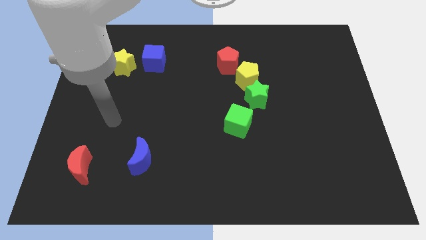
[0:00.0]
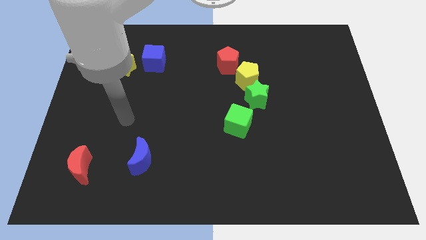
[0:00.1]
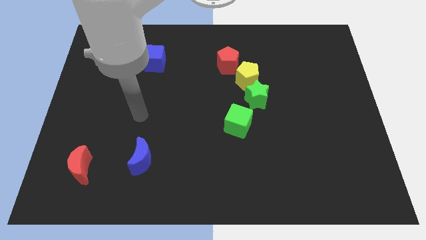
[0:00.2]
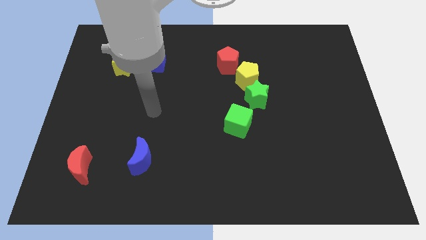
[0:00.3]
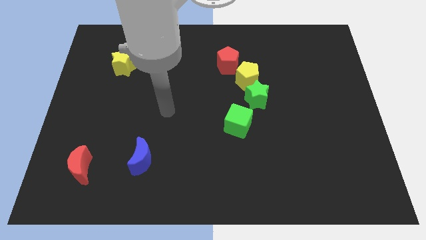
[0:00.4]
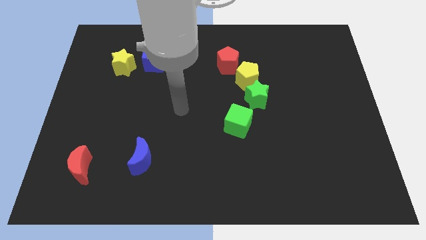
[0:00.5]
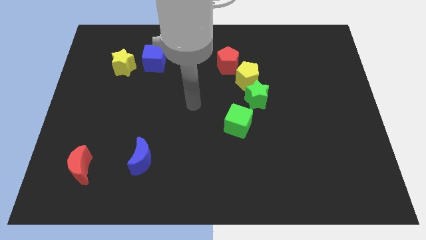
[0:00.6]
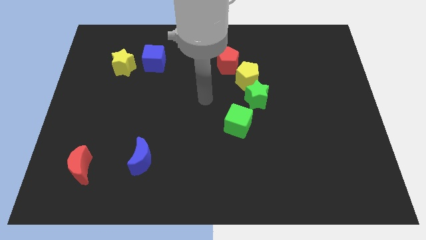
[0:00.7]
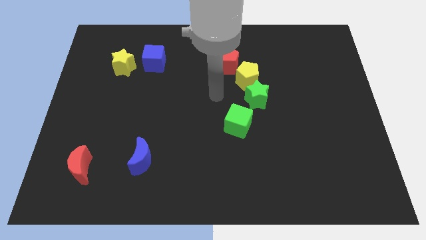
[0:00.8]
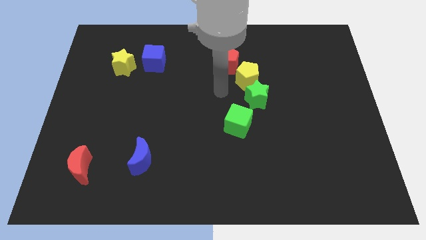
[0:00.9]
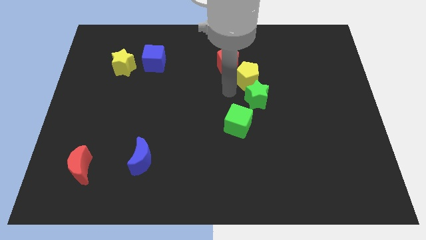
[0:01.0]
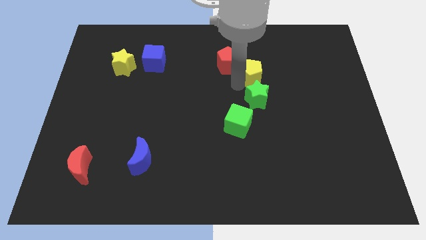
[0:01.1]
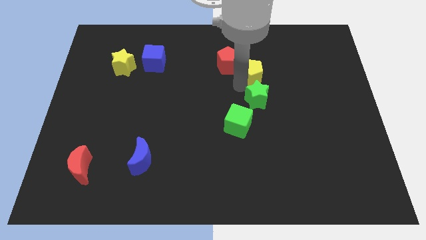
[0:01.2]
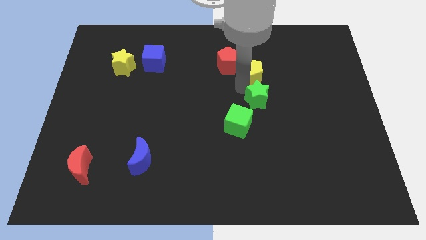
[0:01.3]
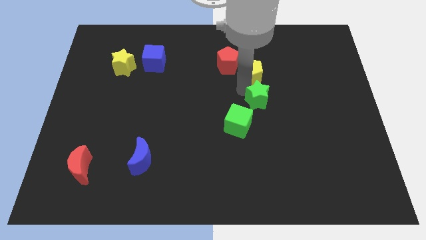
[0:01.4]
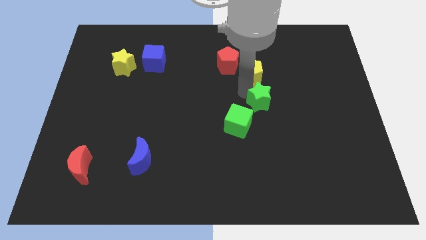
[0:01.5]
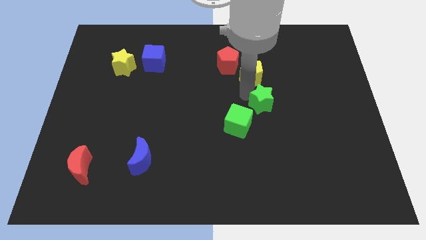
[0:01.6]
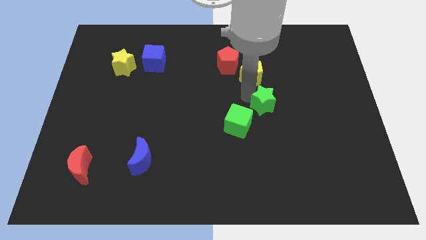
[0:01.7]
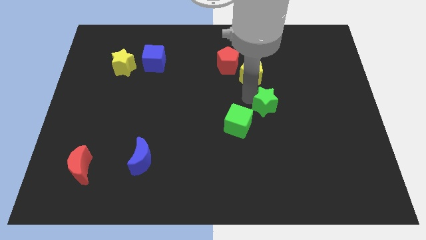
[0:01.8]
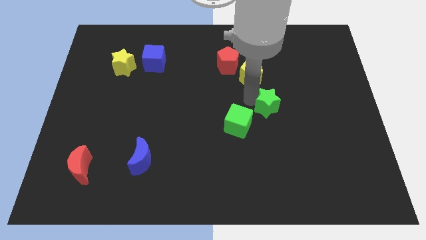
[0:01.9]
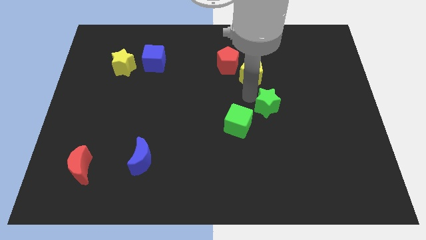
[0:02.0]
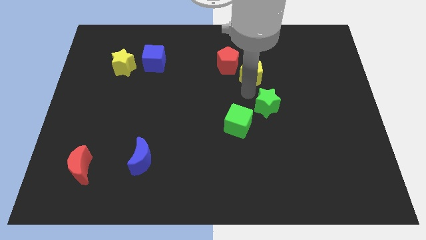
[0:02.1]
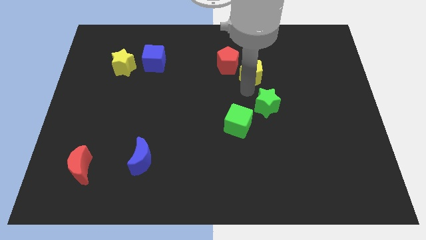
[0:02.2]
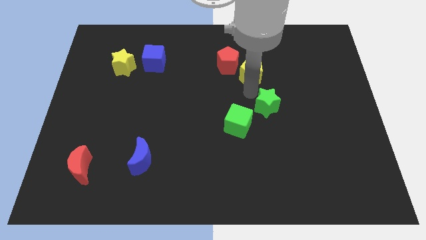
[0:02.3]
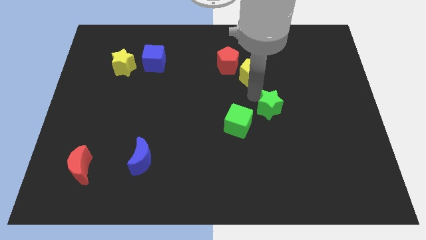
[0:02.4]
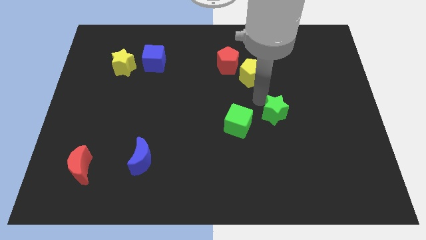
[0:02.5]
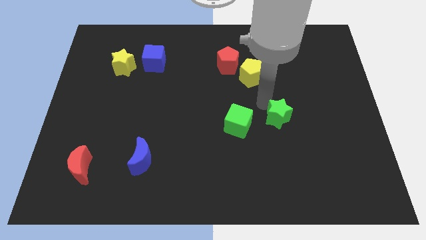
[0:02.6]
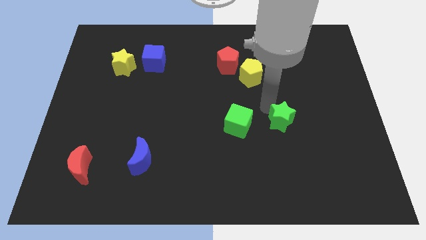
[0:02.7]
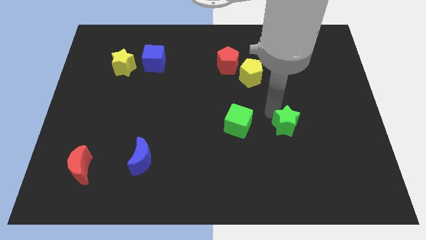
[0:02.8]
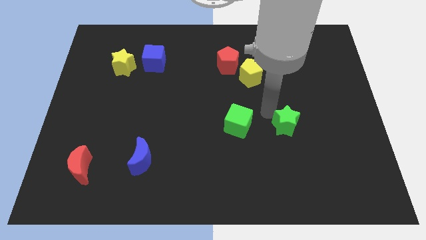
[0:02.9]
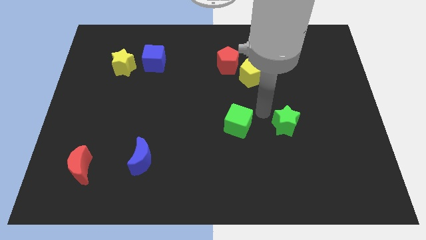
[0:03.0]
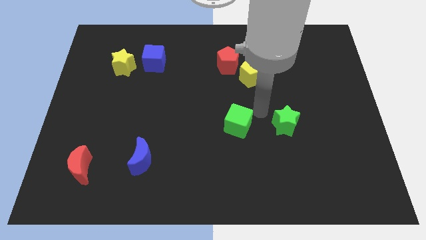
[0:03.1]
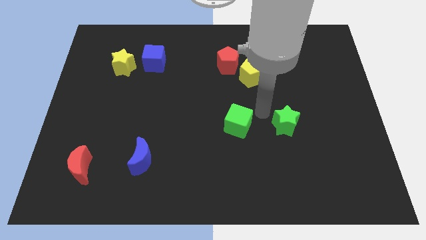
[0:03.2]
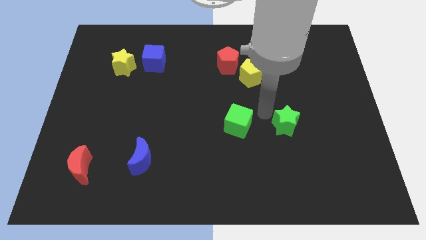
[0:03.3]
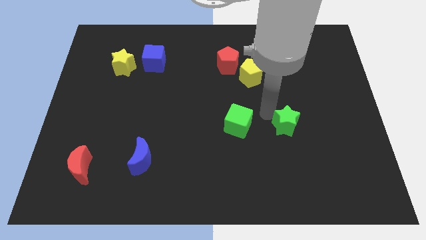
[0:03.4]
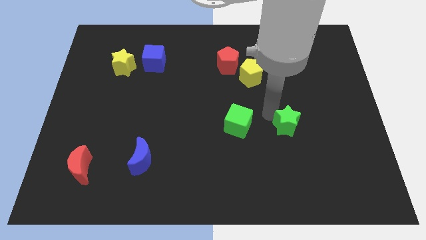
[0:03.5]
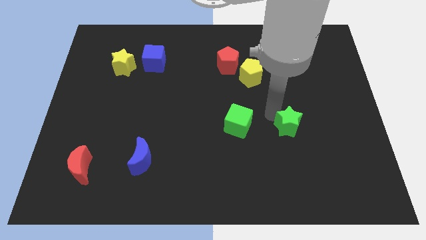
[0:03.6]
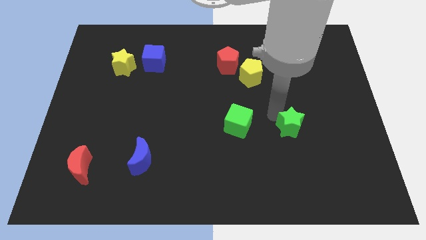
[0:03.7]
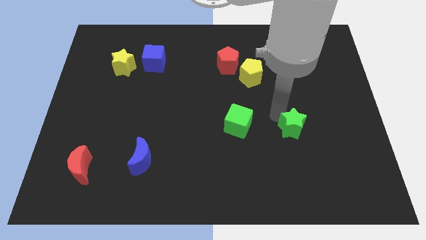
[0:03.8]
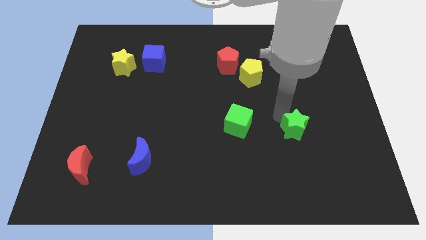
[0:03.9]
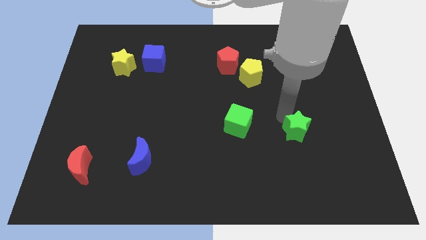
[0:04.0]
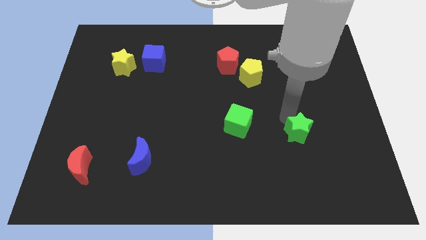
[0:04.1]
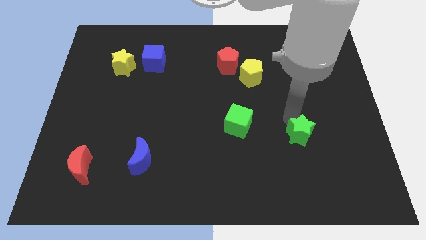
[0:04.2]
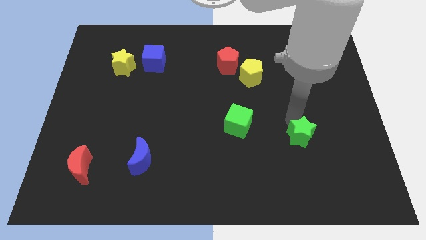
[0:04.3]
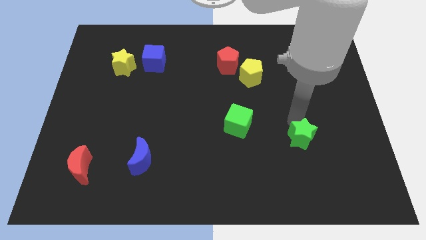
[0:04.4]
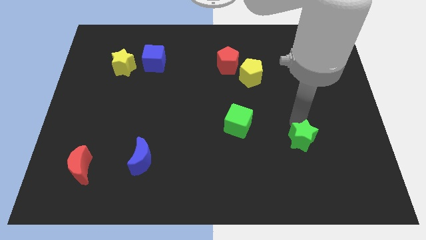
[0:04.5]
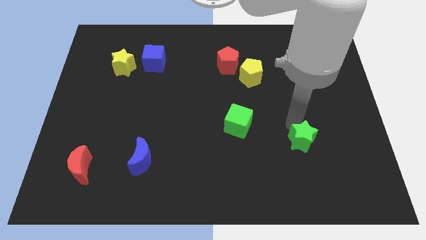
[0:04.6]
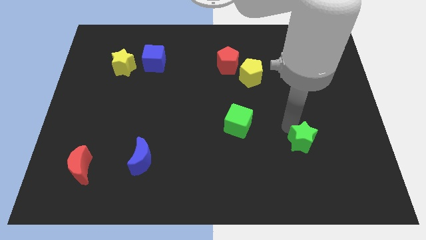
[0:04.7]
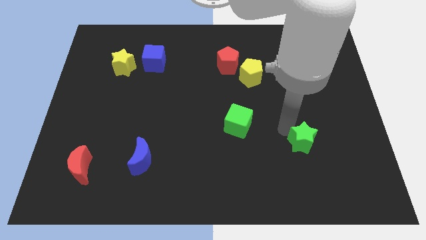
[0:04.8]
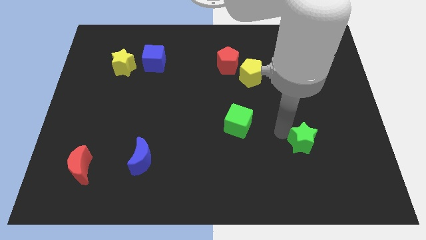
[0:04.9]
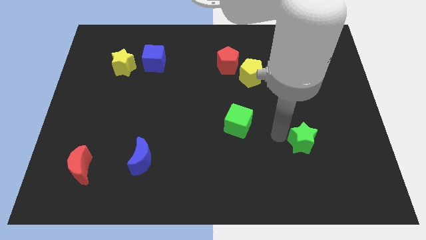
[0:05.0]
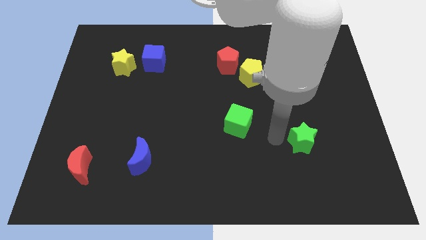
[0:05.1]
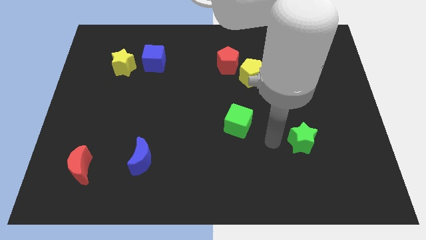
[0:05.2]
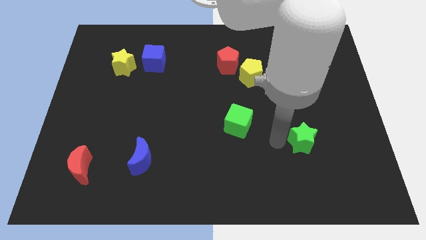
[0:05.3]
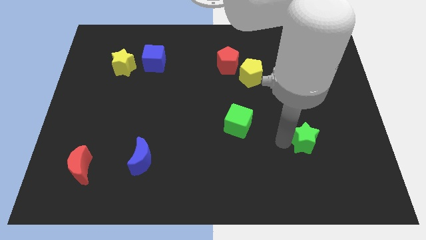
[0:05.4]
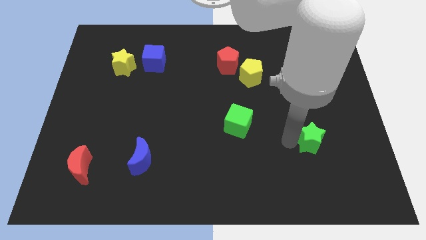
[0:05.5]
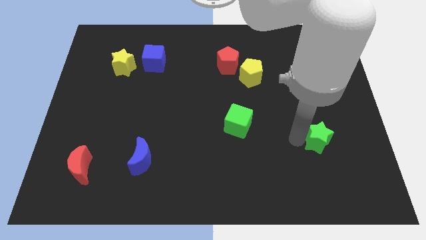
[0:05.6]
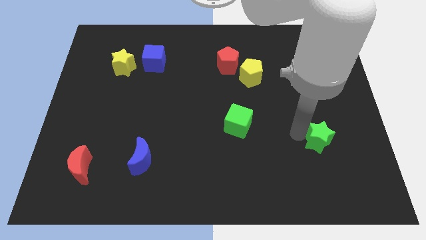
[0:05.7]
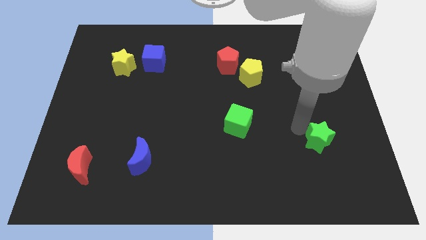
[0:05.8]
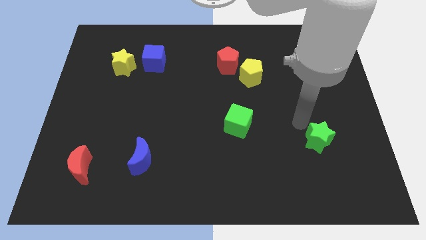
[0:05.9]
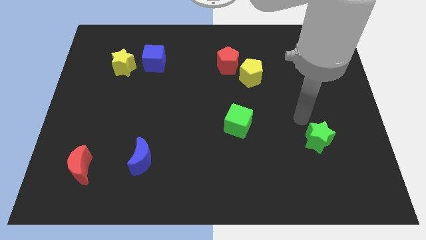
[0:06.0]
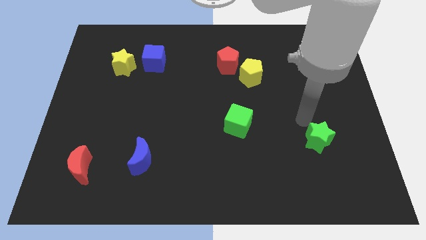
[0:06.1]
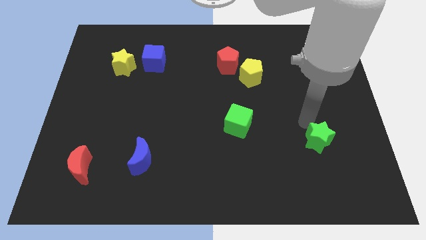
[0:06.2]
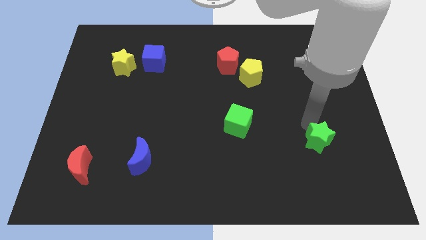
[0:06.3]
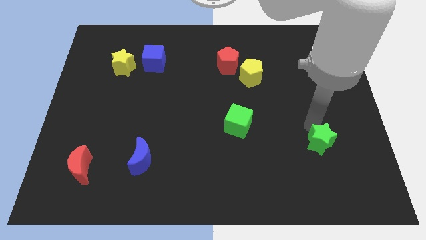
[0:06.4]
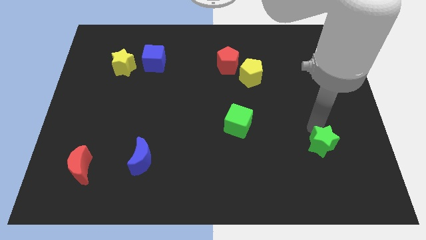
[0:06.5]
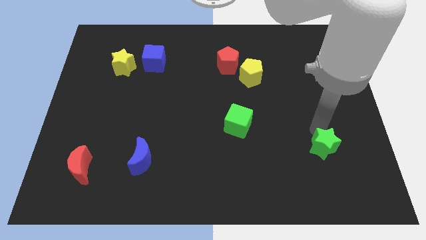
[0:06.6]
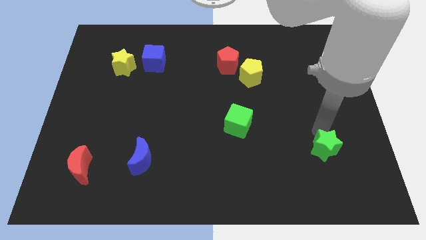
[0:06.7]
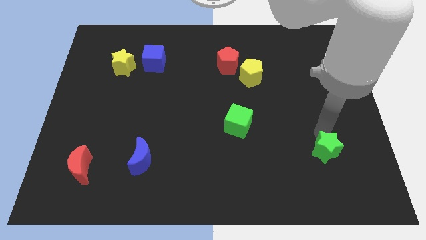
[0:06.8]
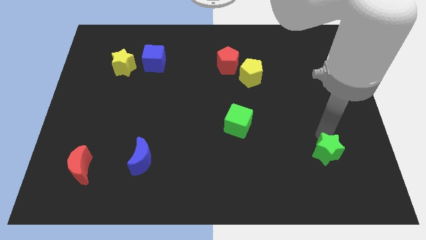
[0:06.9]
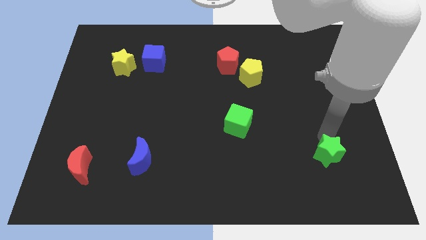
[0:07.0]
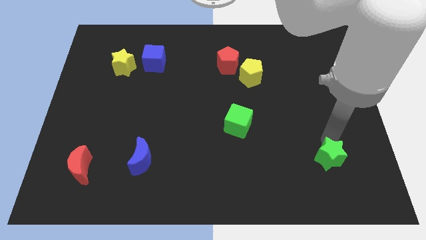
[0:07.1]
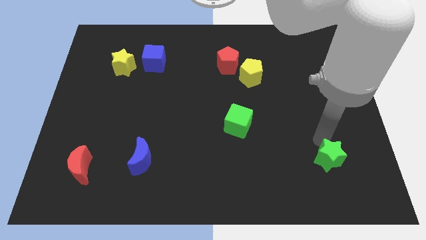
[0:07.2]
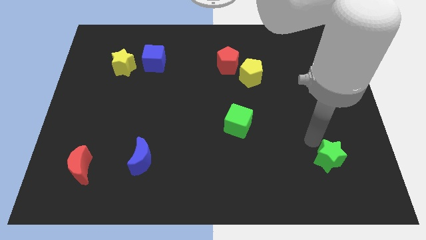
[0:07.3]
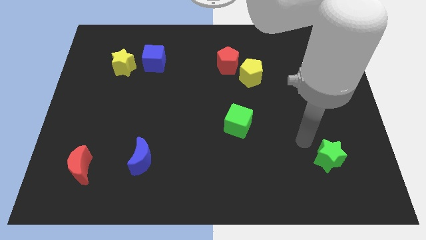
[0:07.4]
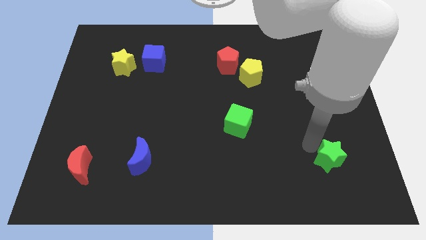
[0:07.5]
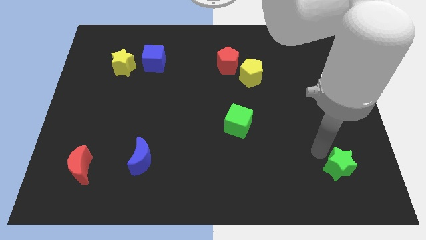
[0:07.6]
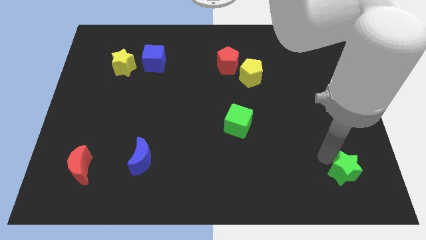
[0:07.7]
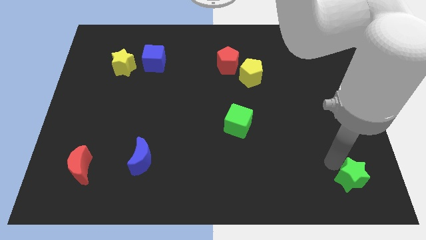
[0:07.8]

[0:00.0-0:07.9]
move the green star to the bottom right of the board
